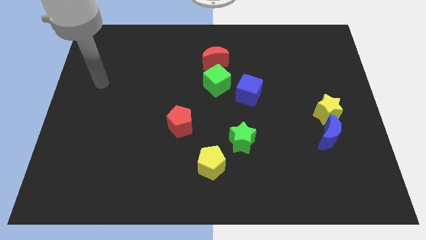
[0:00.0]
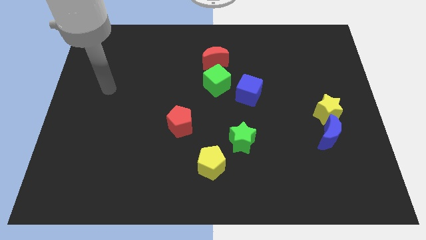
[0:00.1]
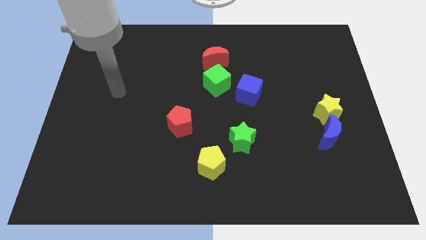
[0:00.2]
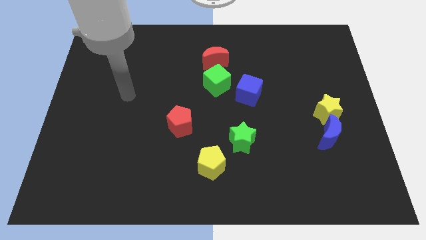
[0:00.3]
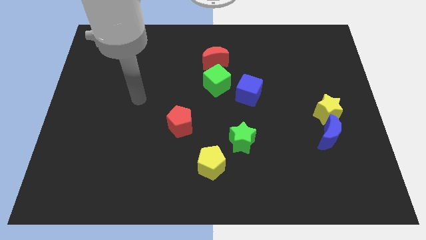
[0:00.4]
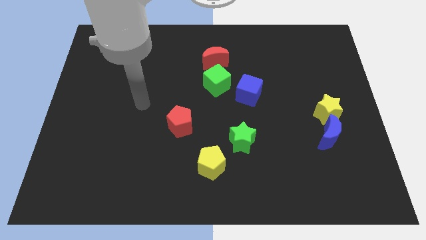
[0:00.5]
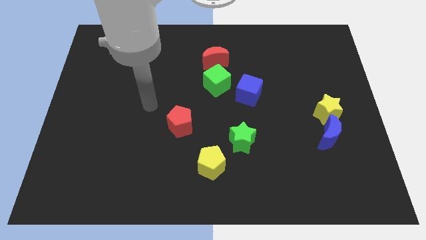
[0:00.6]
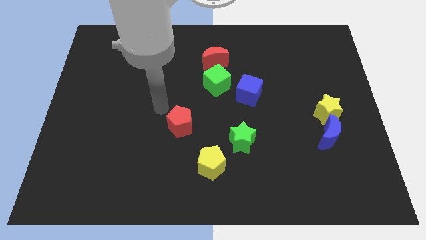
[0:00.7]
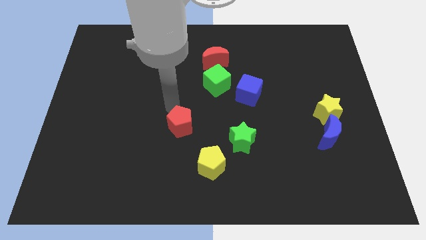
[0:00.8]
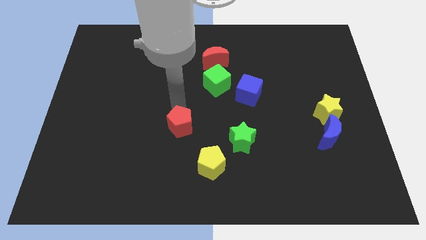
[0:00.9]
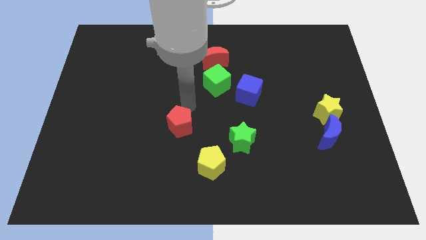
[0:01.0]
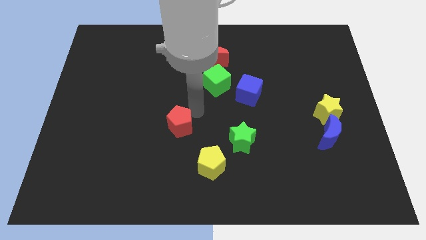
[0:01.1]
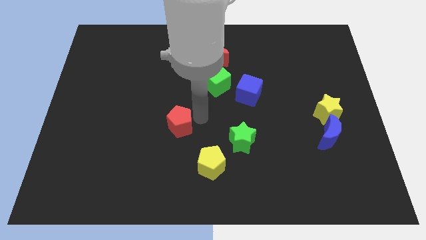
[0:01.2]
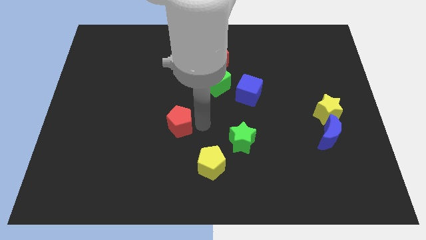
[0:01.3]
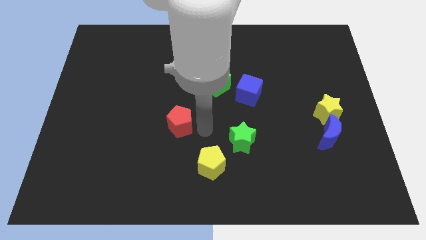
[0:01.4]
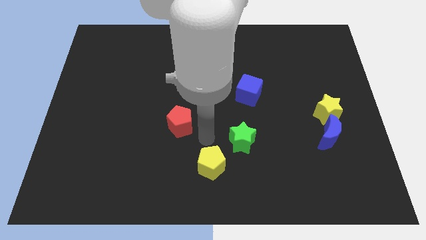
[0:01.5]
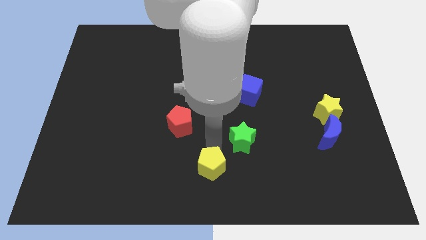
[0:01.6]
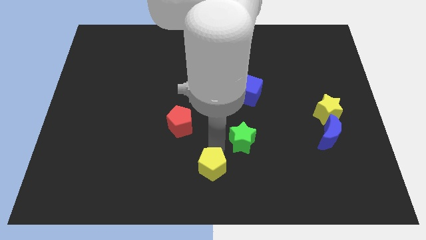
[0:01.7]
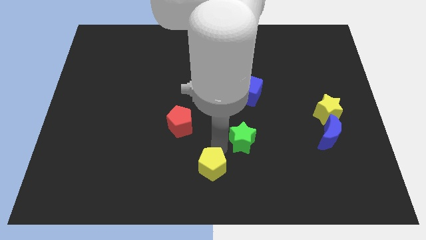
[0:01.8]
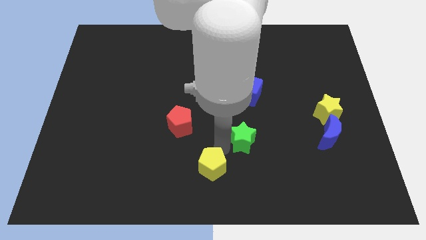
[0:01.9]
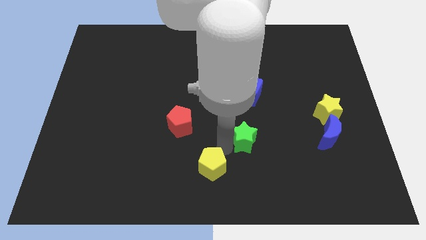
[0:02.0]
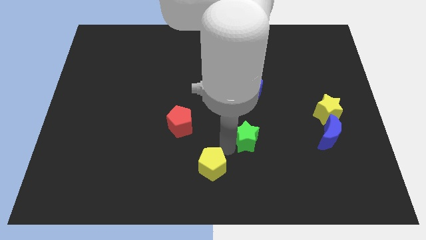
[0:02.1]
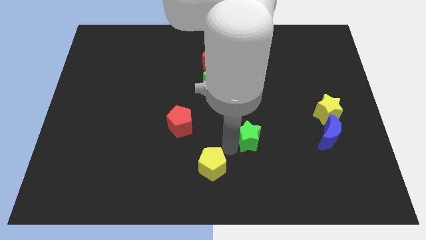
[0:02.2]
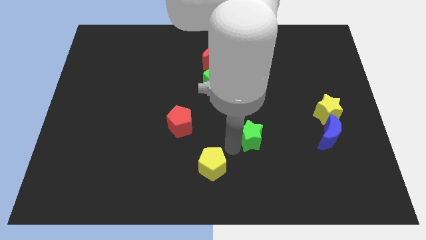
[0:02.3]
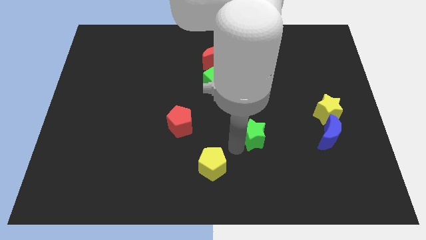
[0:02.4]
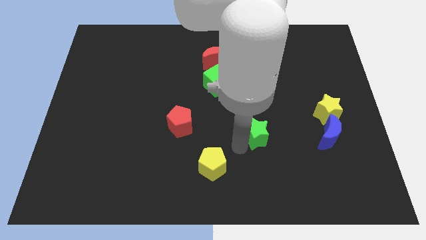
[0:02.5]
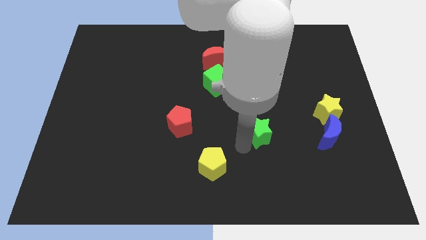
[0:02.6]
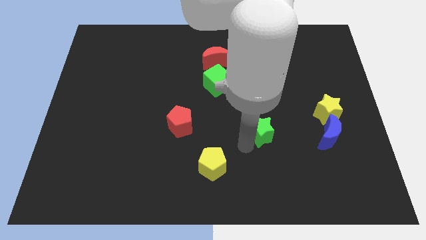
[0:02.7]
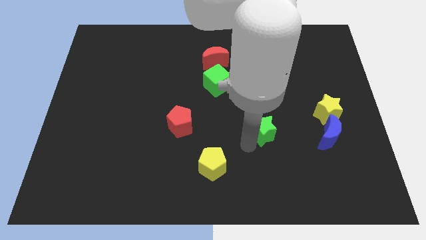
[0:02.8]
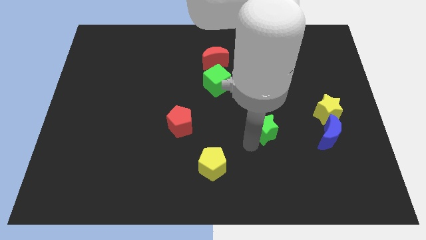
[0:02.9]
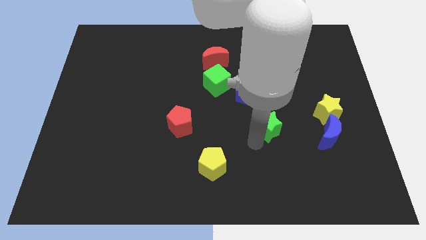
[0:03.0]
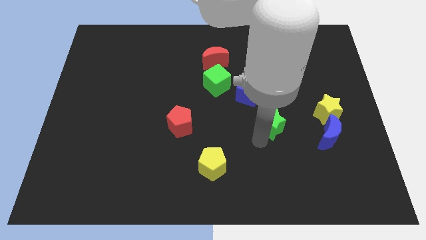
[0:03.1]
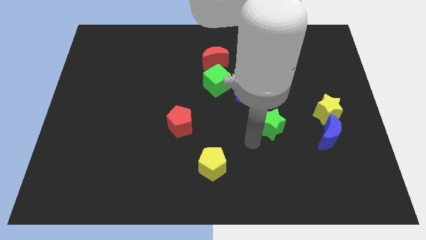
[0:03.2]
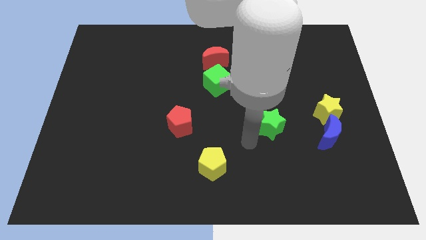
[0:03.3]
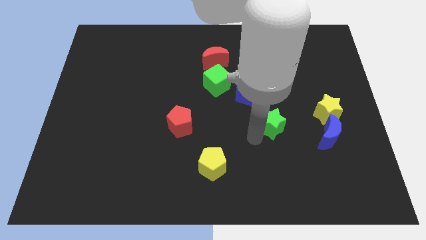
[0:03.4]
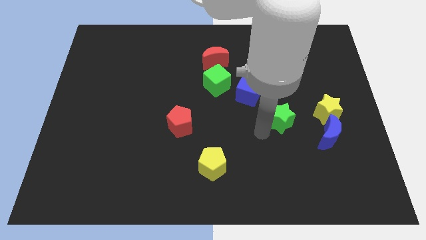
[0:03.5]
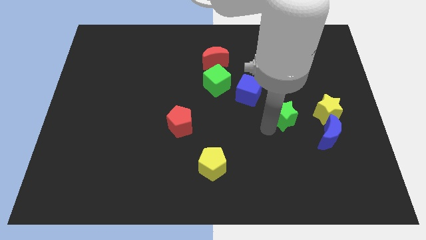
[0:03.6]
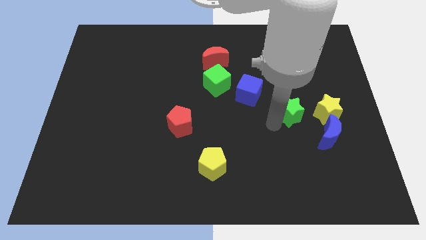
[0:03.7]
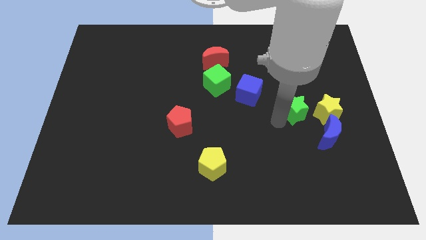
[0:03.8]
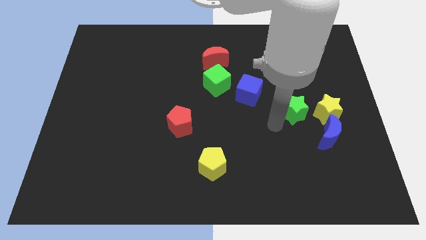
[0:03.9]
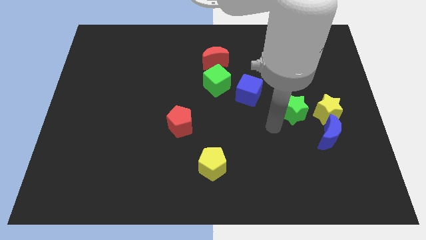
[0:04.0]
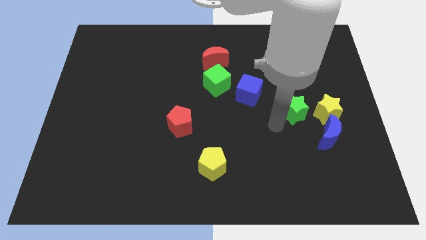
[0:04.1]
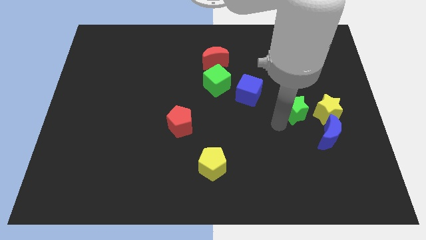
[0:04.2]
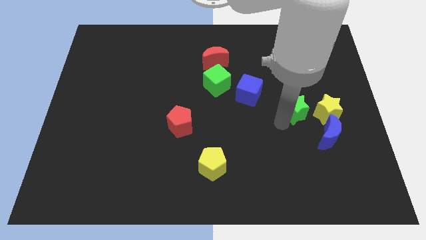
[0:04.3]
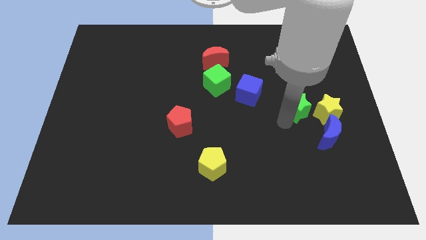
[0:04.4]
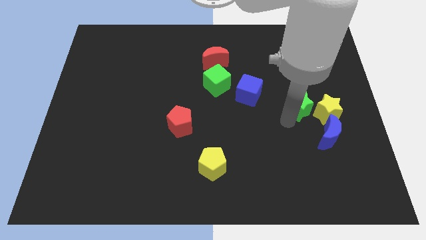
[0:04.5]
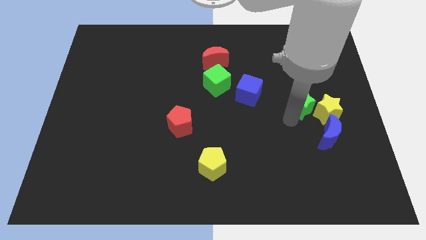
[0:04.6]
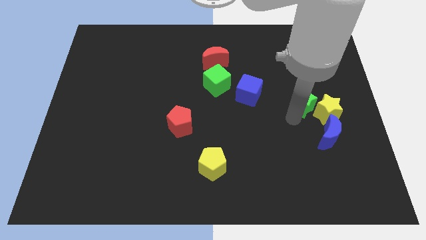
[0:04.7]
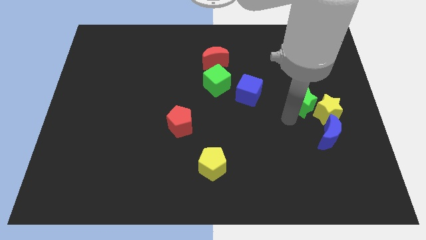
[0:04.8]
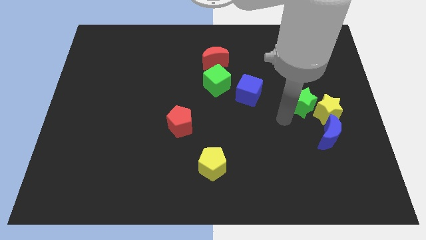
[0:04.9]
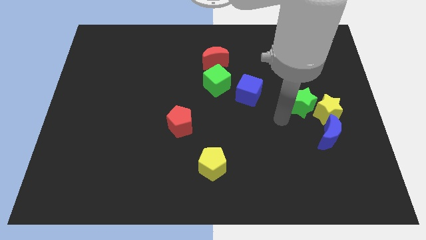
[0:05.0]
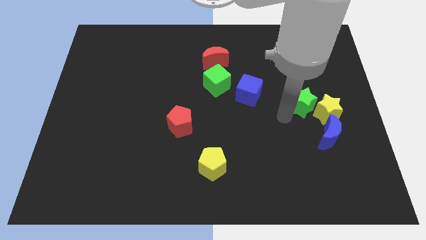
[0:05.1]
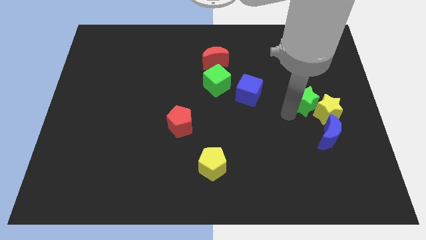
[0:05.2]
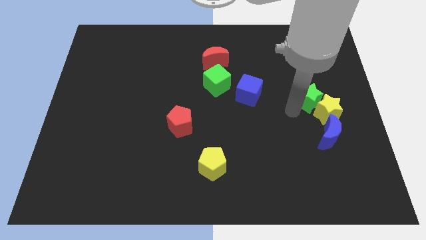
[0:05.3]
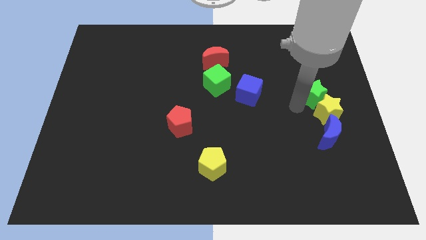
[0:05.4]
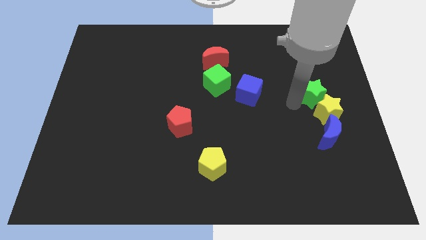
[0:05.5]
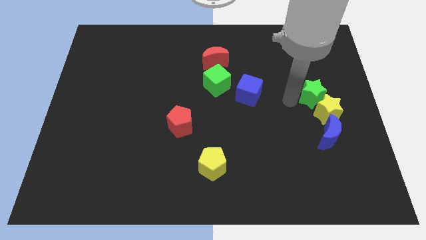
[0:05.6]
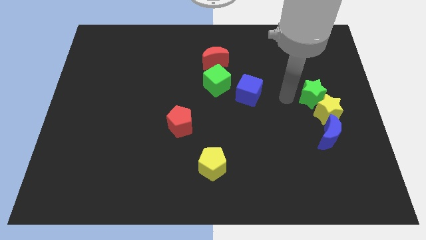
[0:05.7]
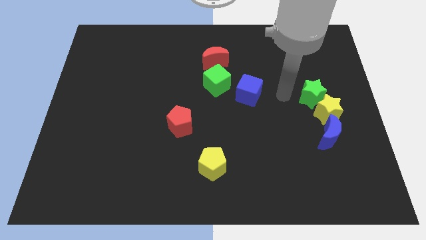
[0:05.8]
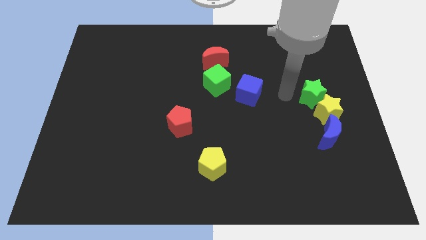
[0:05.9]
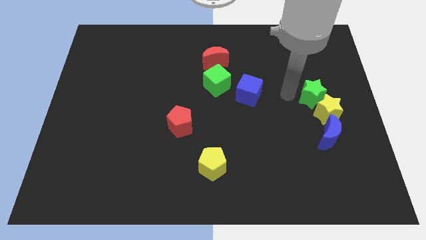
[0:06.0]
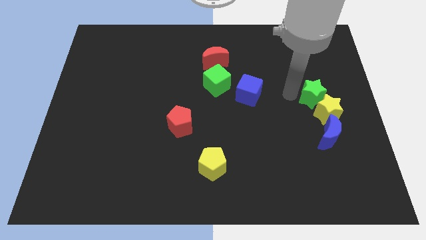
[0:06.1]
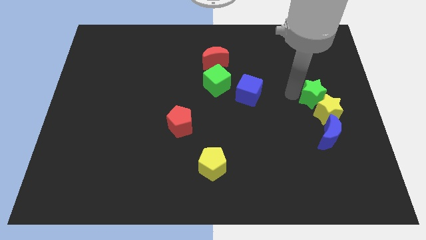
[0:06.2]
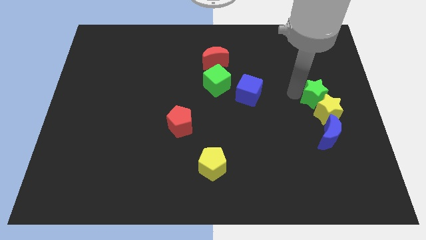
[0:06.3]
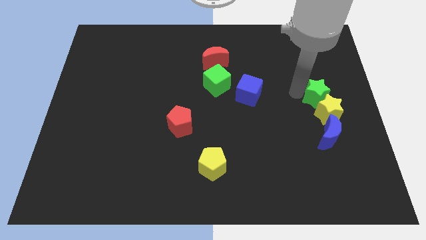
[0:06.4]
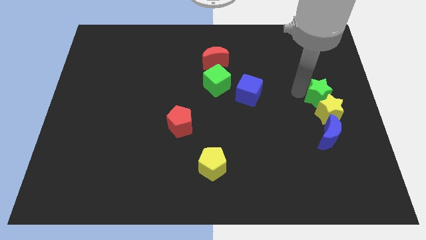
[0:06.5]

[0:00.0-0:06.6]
slide the green star to the center right
